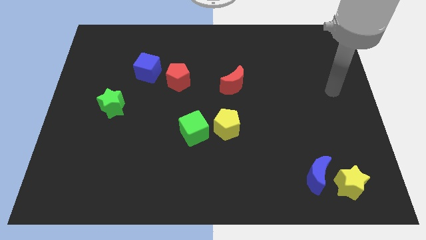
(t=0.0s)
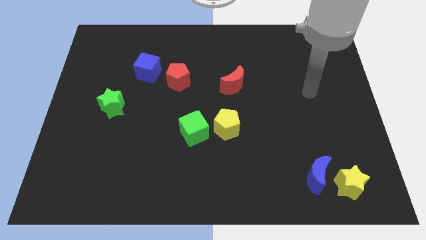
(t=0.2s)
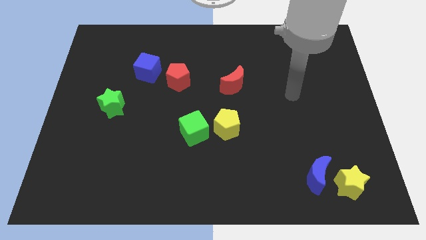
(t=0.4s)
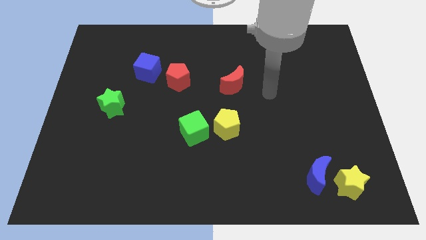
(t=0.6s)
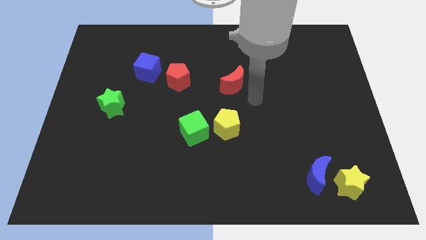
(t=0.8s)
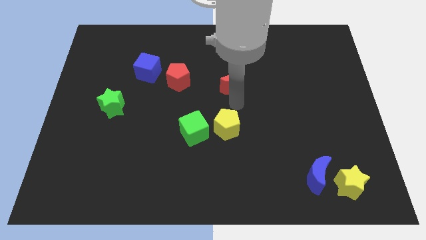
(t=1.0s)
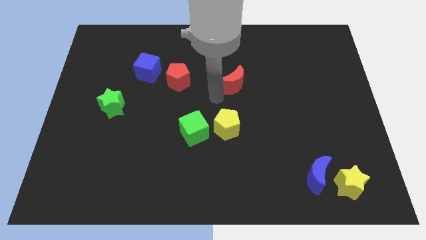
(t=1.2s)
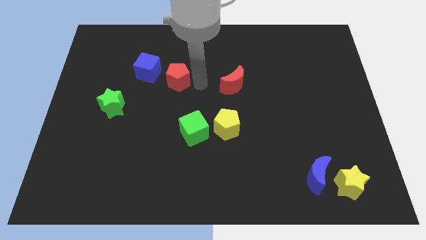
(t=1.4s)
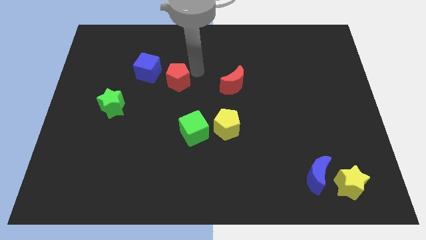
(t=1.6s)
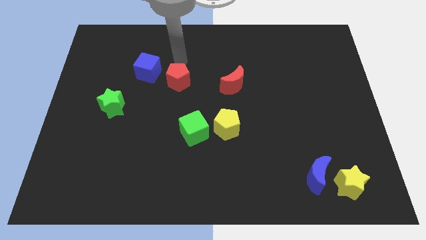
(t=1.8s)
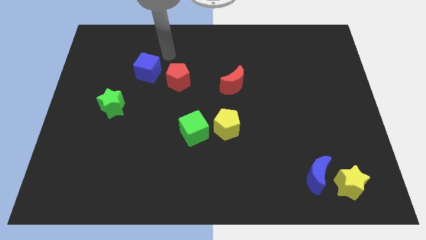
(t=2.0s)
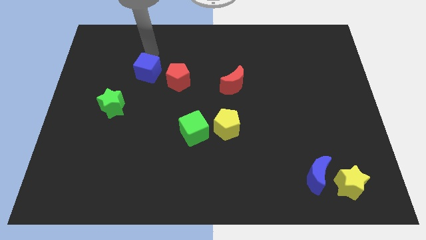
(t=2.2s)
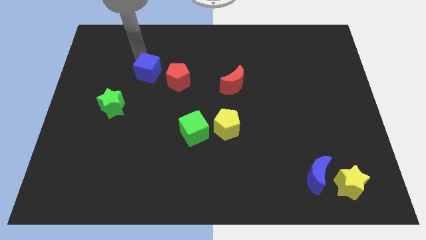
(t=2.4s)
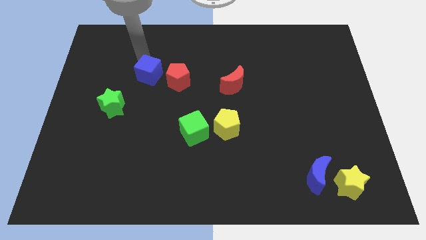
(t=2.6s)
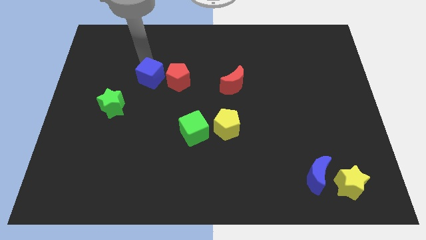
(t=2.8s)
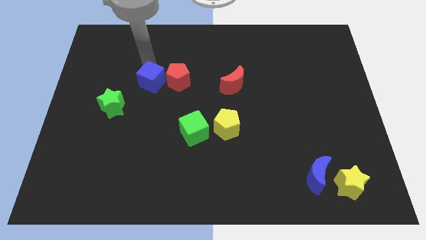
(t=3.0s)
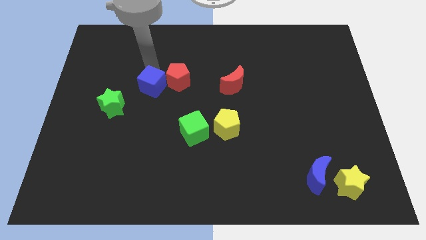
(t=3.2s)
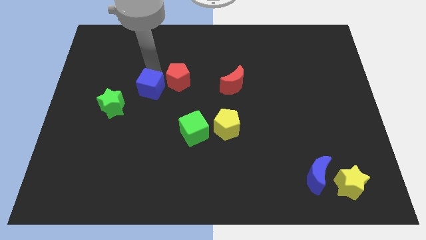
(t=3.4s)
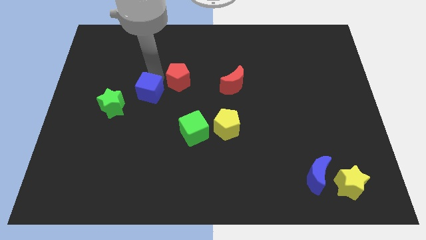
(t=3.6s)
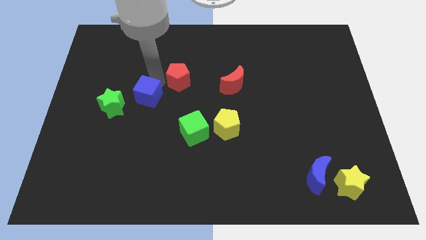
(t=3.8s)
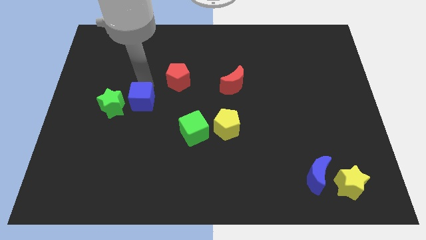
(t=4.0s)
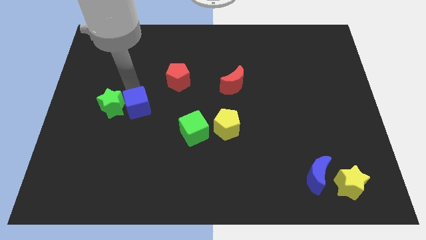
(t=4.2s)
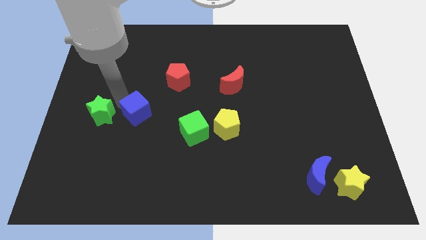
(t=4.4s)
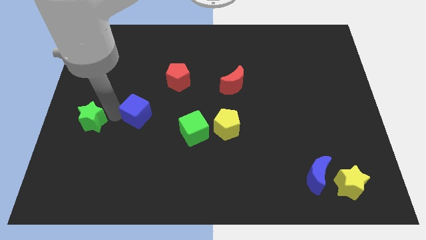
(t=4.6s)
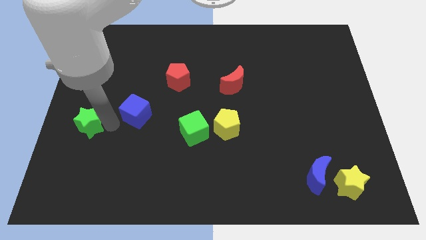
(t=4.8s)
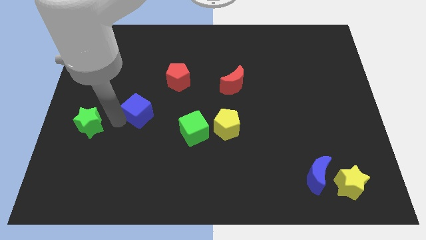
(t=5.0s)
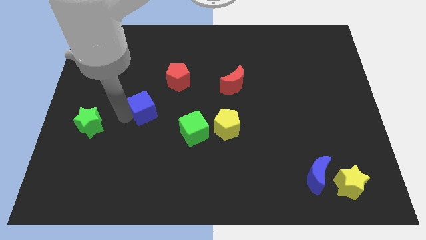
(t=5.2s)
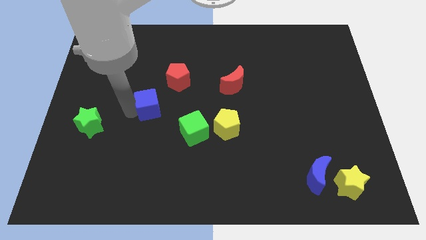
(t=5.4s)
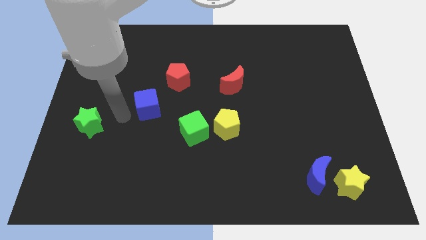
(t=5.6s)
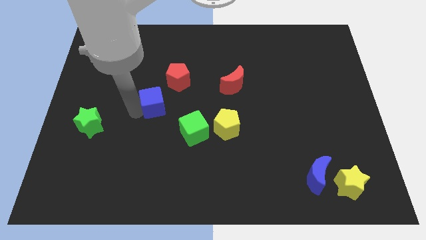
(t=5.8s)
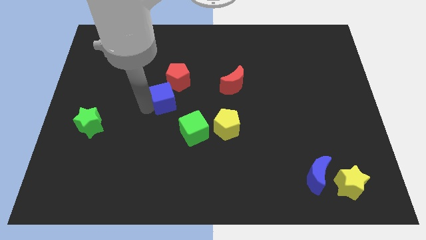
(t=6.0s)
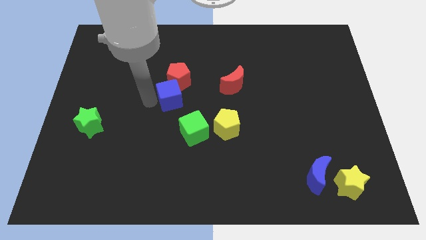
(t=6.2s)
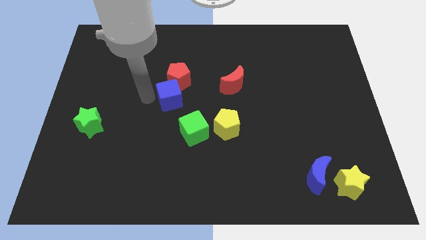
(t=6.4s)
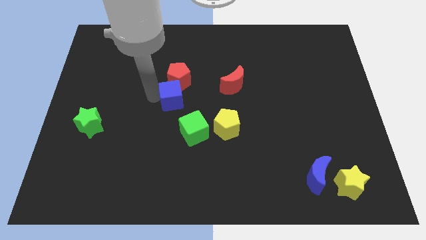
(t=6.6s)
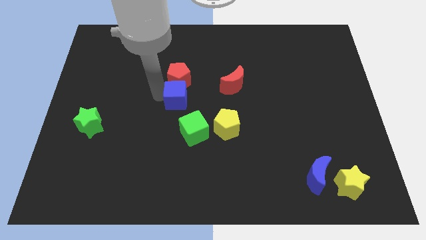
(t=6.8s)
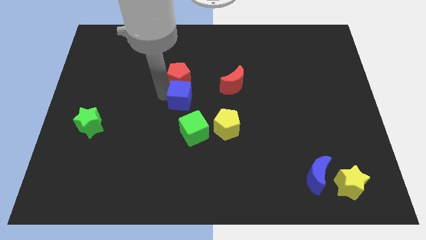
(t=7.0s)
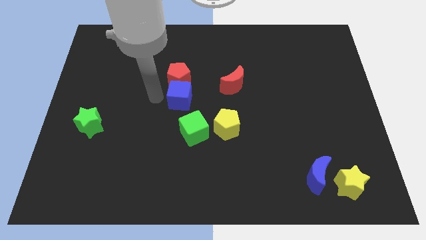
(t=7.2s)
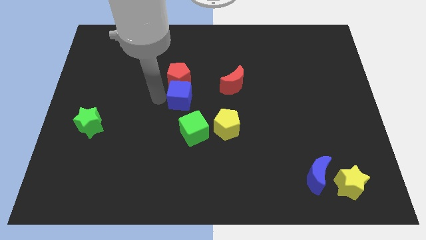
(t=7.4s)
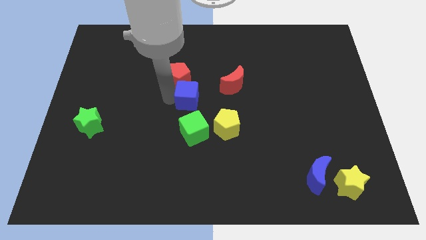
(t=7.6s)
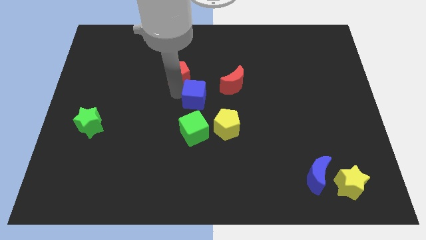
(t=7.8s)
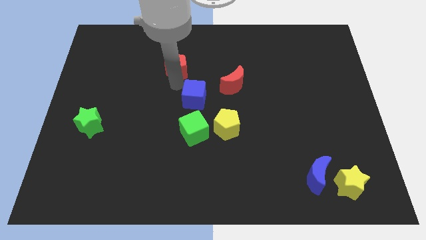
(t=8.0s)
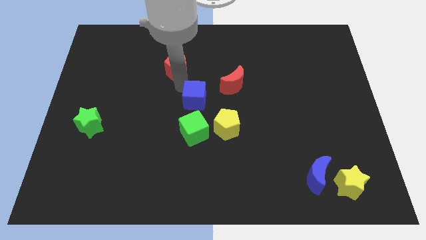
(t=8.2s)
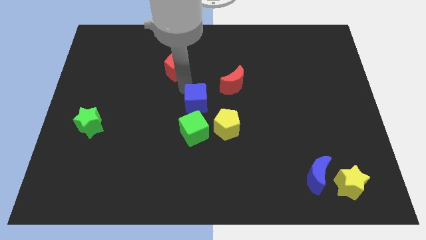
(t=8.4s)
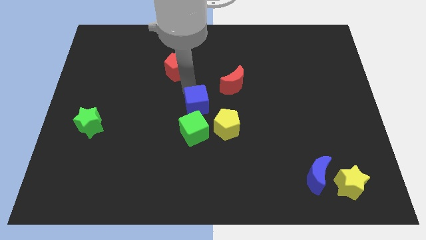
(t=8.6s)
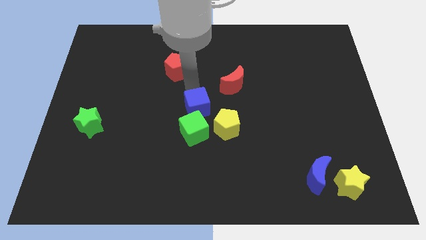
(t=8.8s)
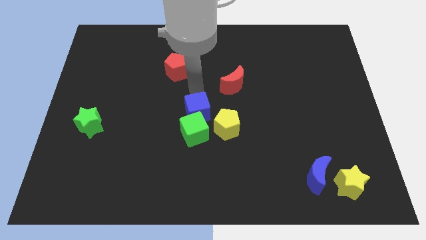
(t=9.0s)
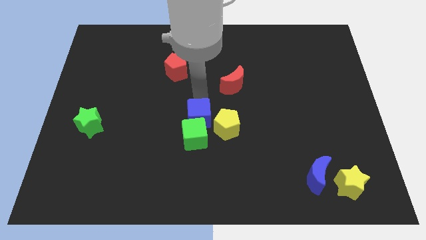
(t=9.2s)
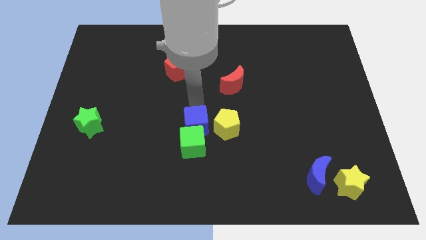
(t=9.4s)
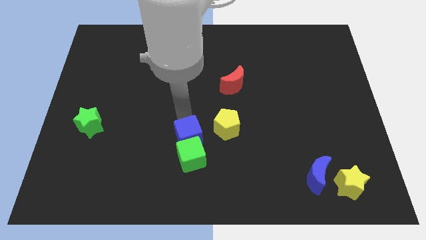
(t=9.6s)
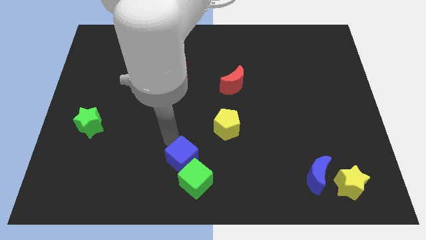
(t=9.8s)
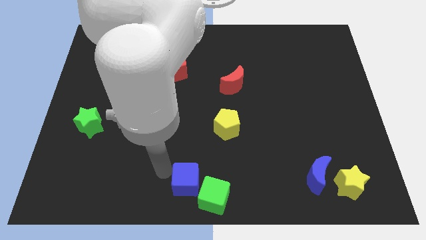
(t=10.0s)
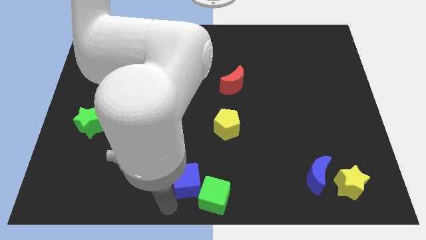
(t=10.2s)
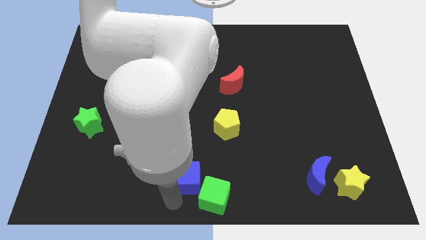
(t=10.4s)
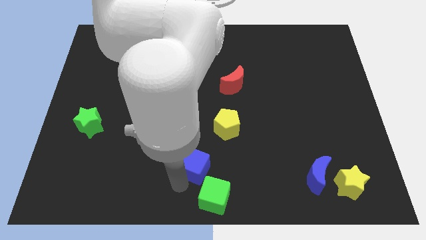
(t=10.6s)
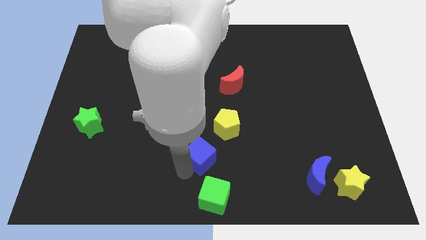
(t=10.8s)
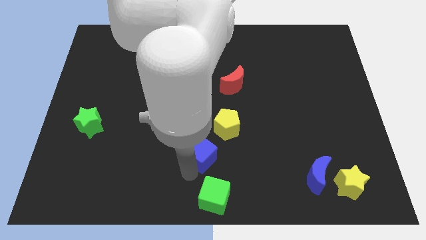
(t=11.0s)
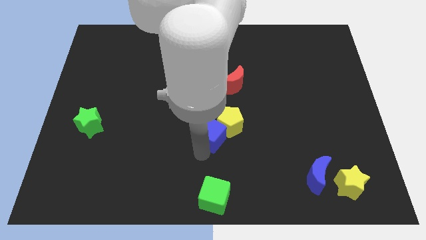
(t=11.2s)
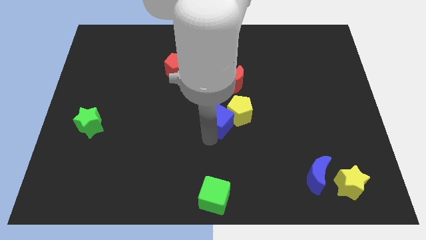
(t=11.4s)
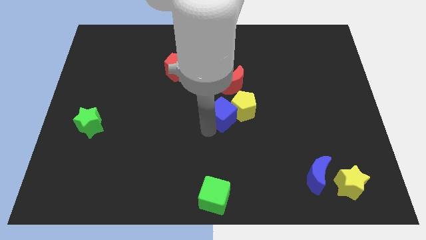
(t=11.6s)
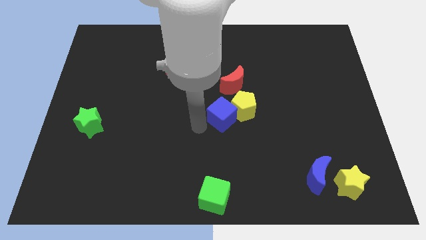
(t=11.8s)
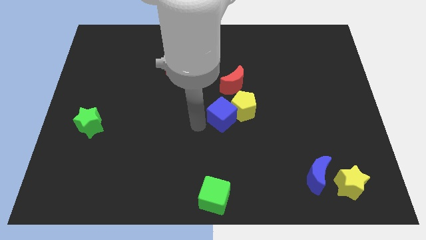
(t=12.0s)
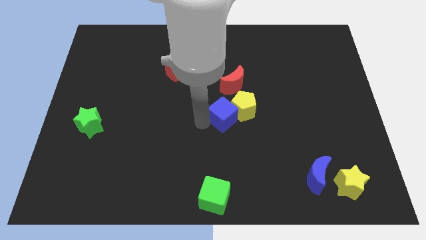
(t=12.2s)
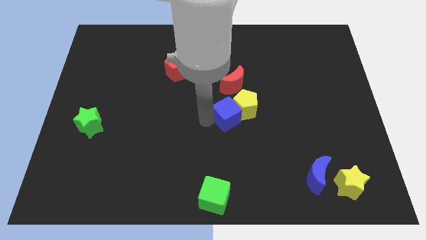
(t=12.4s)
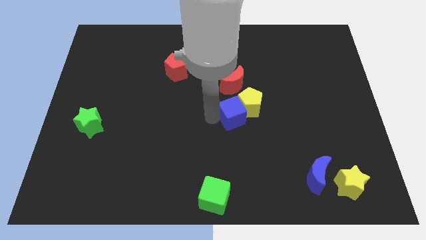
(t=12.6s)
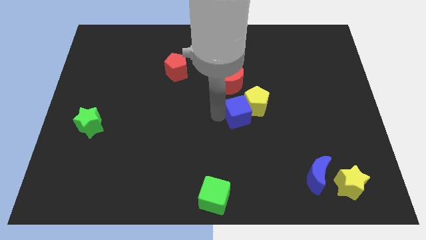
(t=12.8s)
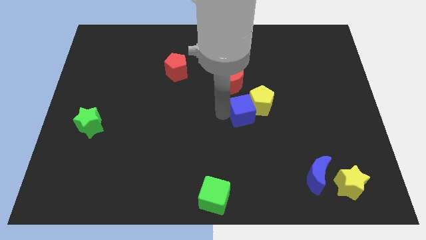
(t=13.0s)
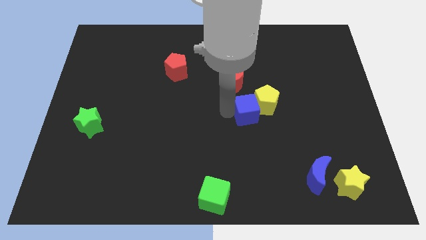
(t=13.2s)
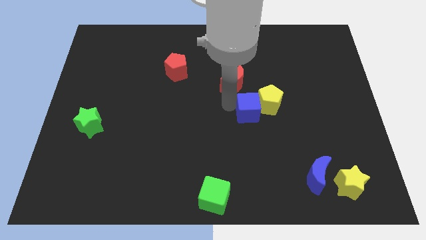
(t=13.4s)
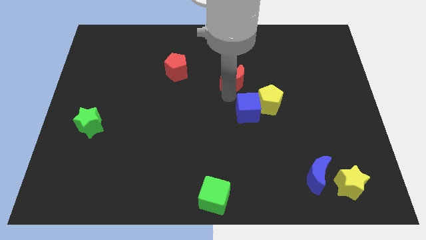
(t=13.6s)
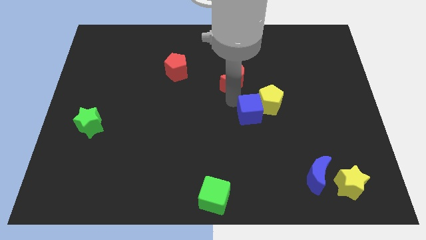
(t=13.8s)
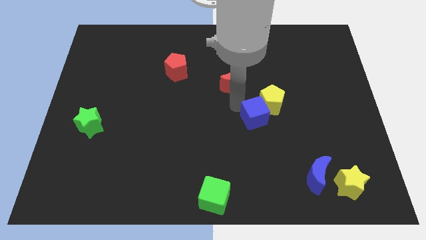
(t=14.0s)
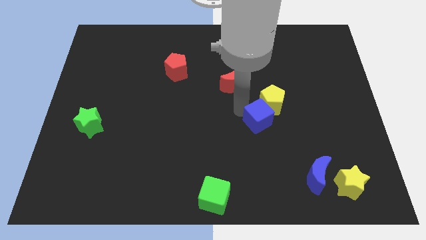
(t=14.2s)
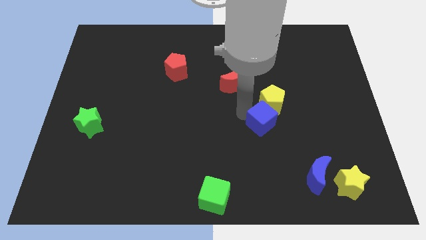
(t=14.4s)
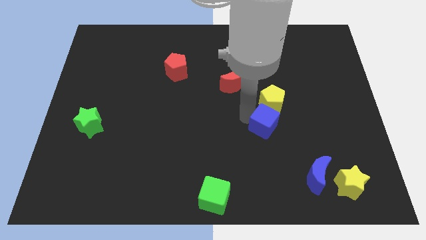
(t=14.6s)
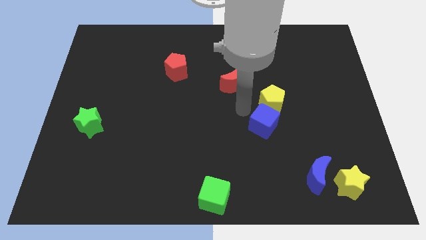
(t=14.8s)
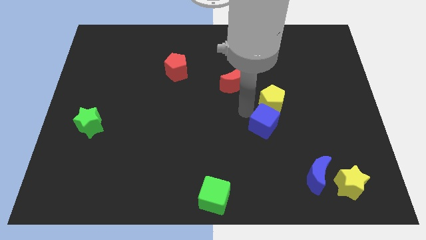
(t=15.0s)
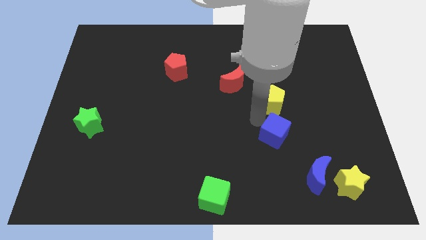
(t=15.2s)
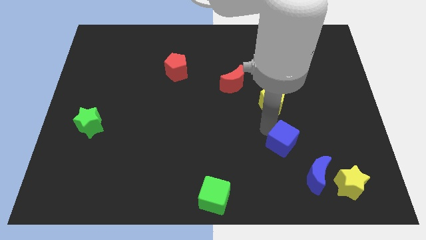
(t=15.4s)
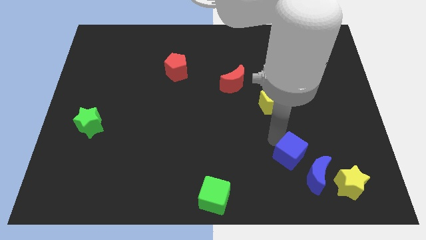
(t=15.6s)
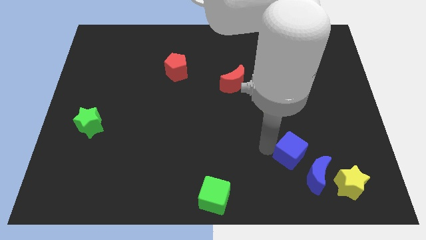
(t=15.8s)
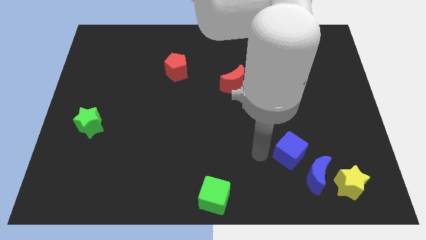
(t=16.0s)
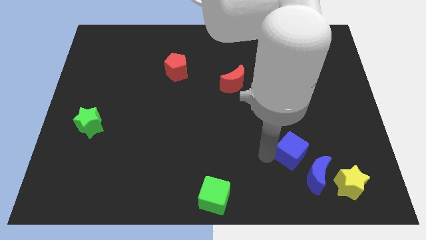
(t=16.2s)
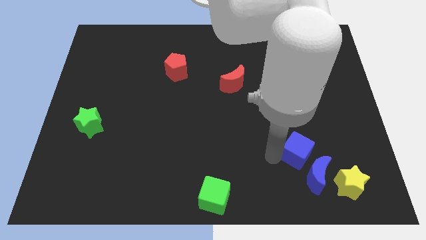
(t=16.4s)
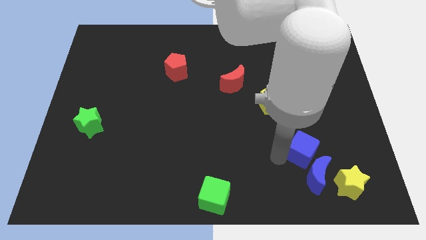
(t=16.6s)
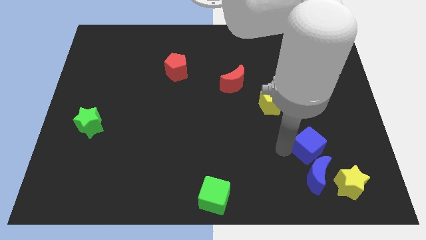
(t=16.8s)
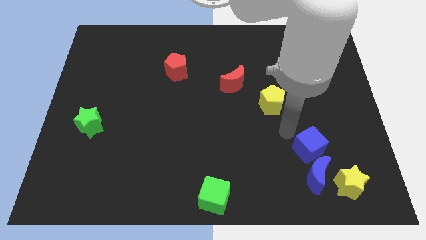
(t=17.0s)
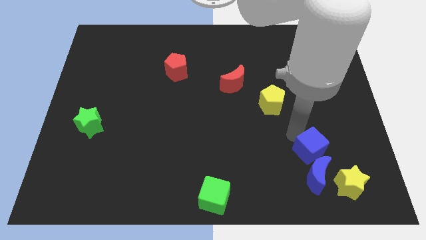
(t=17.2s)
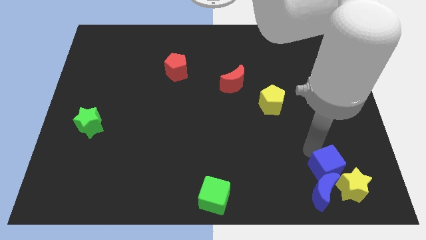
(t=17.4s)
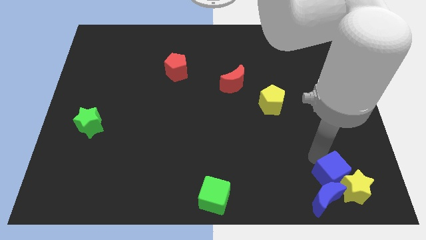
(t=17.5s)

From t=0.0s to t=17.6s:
move the blue cube towards the yellow star
